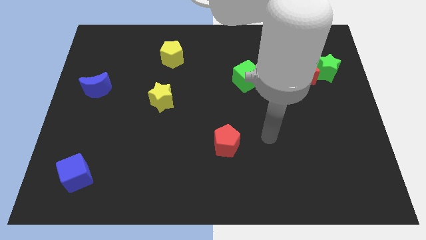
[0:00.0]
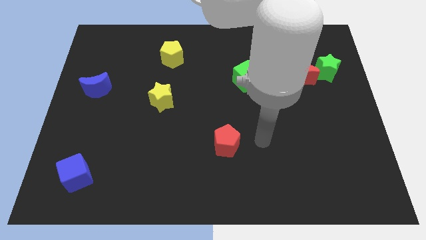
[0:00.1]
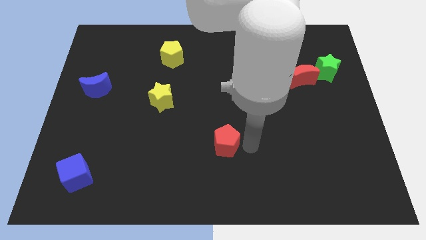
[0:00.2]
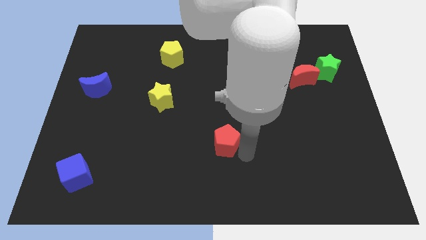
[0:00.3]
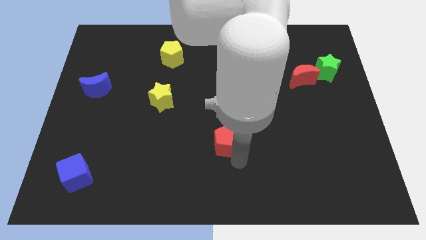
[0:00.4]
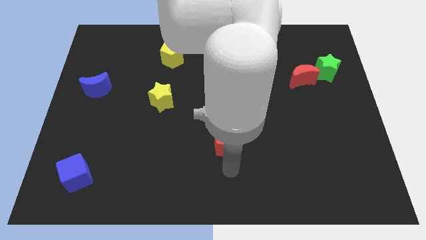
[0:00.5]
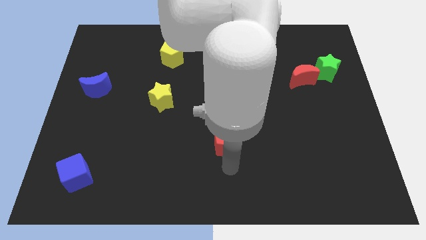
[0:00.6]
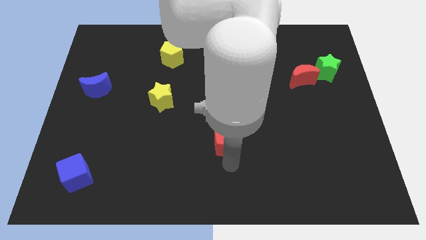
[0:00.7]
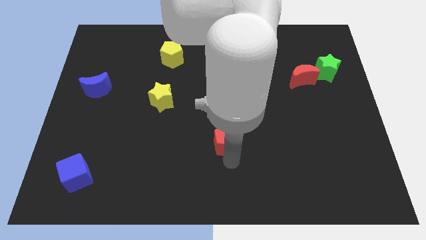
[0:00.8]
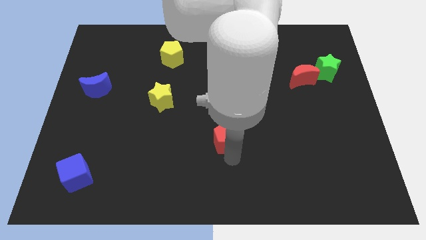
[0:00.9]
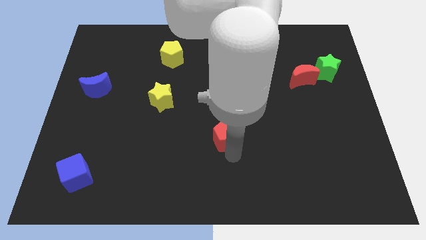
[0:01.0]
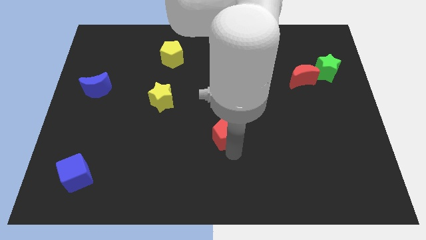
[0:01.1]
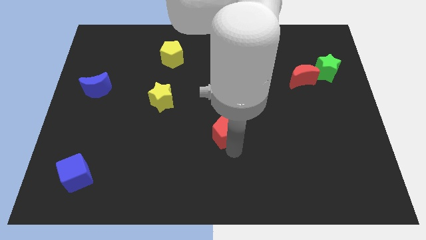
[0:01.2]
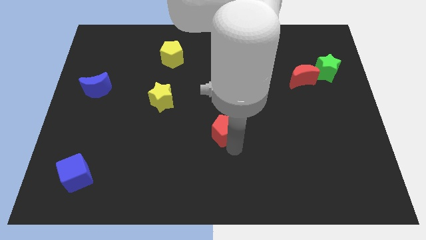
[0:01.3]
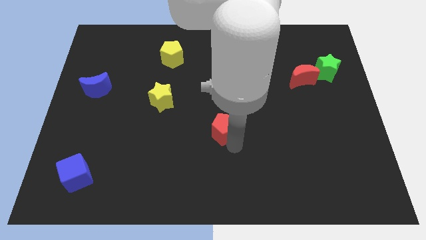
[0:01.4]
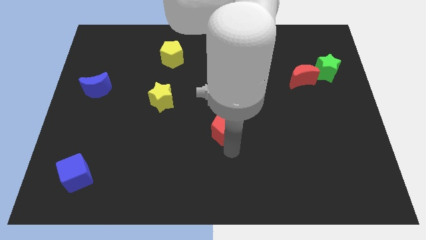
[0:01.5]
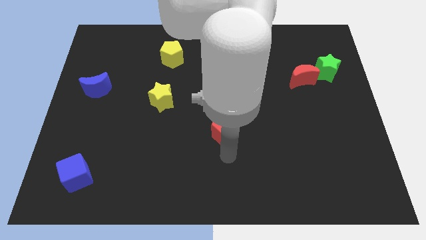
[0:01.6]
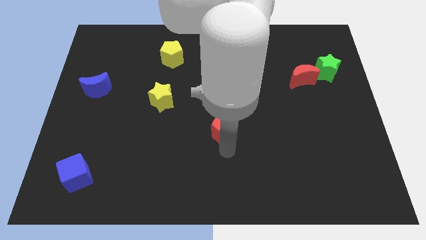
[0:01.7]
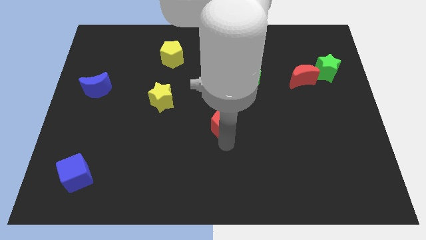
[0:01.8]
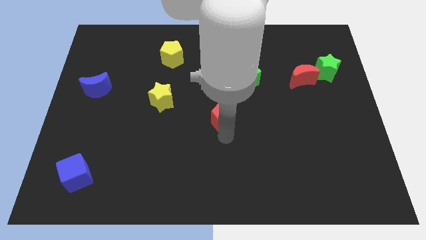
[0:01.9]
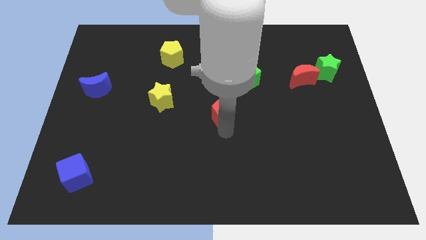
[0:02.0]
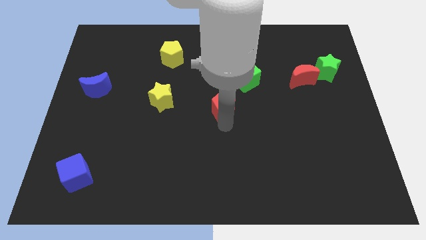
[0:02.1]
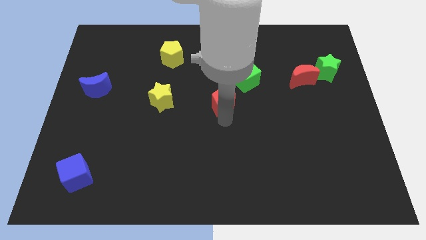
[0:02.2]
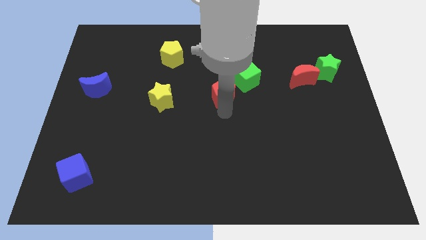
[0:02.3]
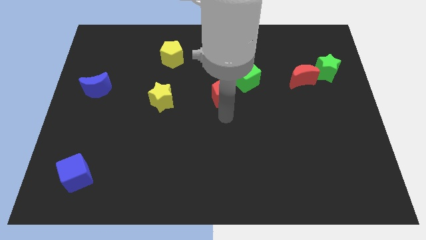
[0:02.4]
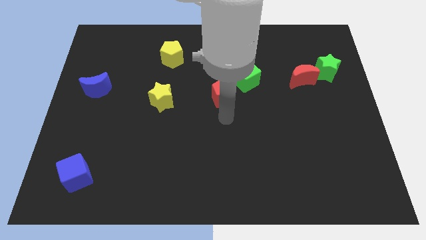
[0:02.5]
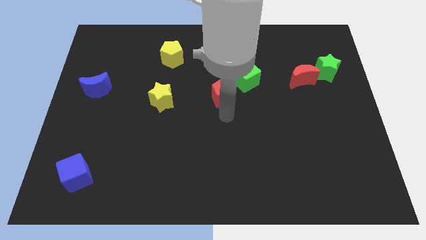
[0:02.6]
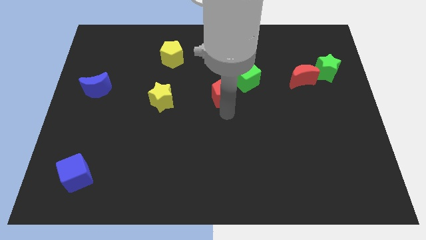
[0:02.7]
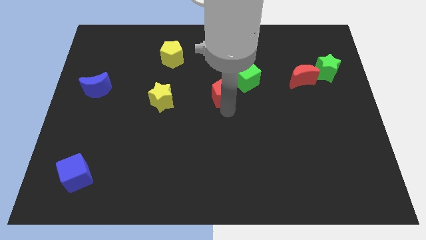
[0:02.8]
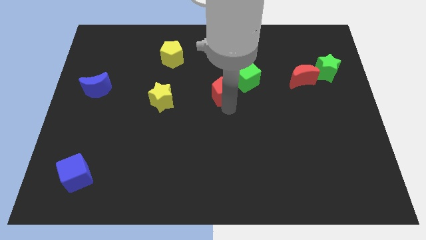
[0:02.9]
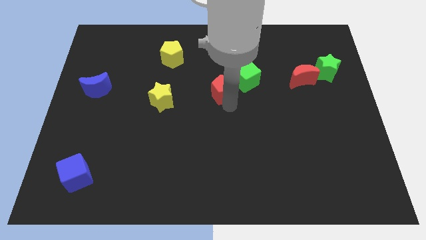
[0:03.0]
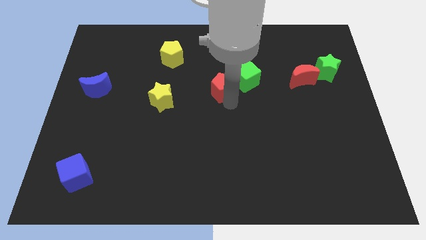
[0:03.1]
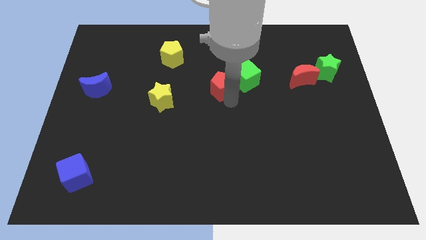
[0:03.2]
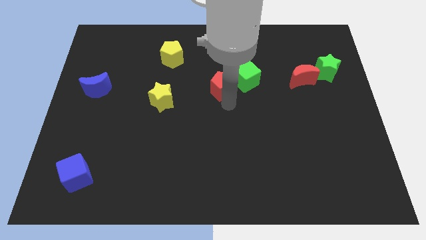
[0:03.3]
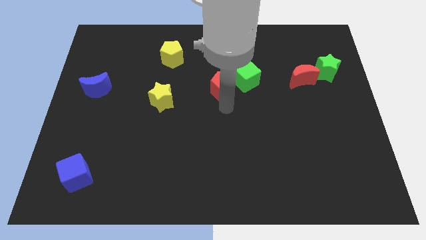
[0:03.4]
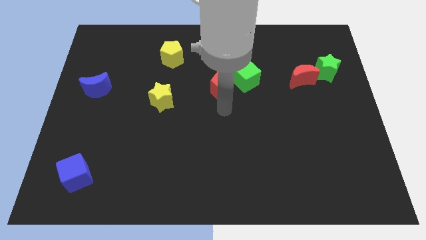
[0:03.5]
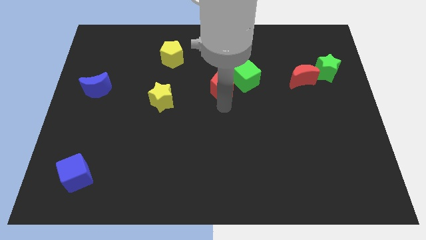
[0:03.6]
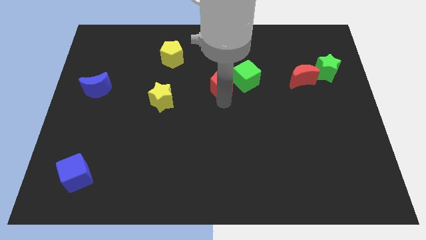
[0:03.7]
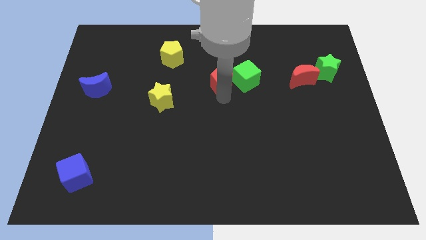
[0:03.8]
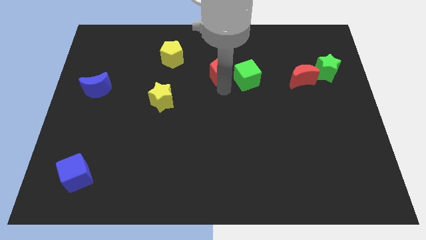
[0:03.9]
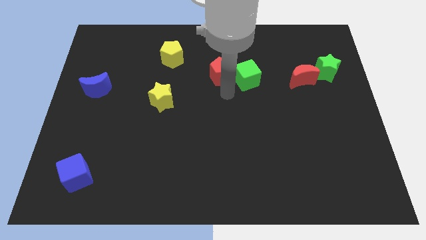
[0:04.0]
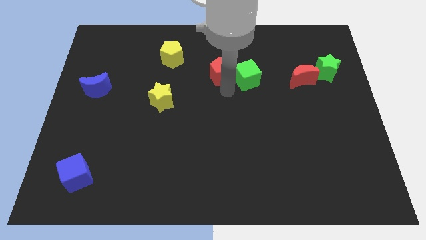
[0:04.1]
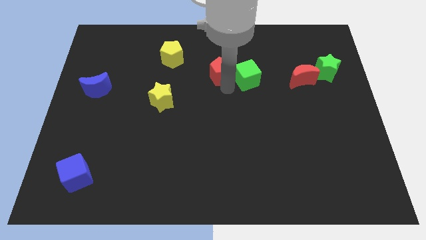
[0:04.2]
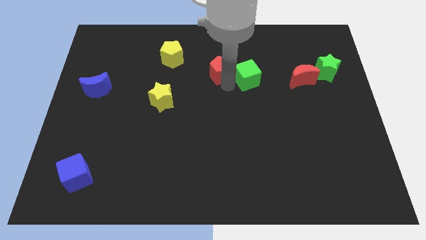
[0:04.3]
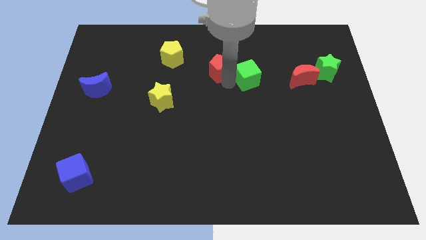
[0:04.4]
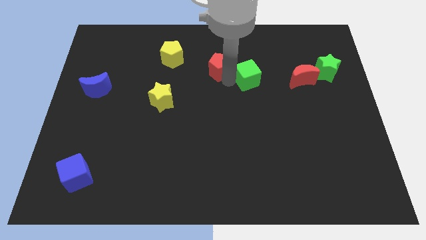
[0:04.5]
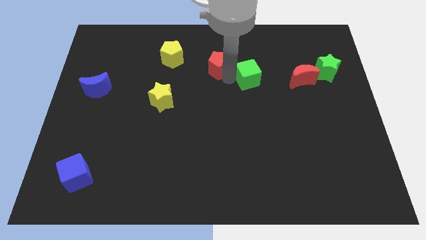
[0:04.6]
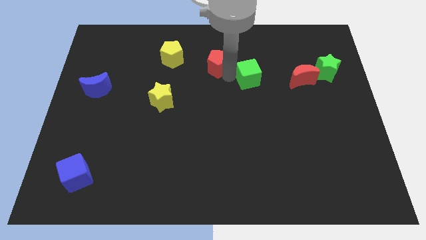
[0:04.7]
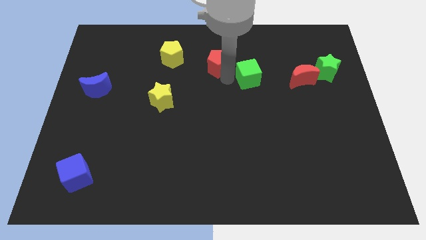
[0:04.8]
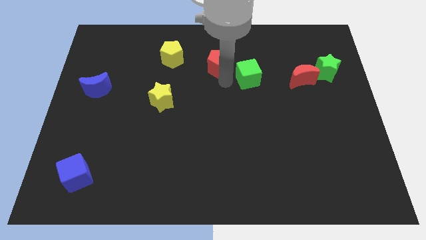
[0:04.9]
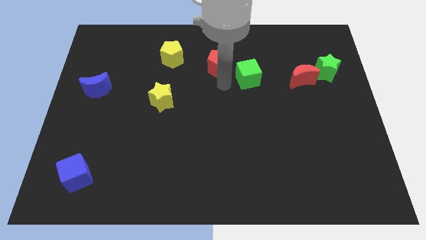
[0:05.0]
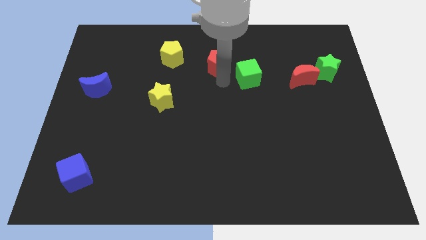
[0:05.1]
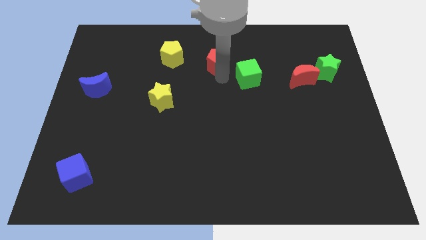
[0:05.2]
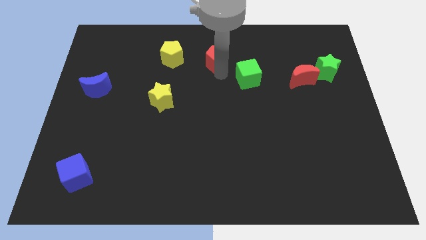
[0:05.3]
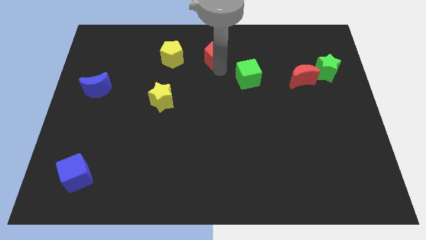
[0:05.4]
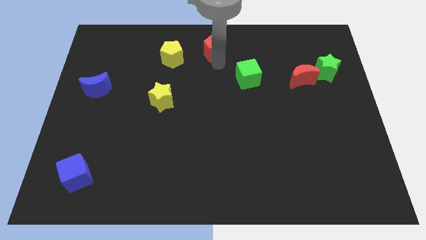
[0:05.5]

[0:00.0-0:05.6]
slide the red pentagon to the top side

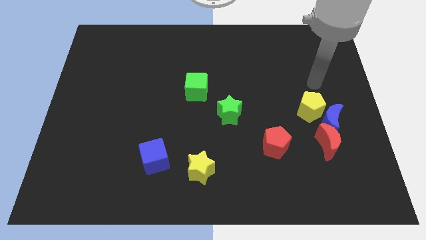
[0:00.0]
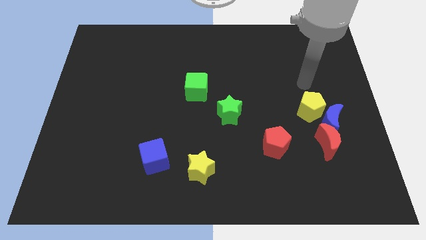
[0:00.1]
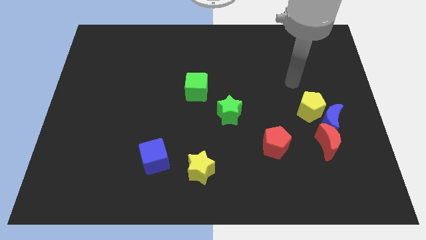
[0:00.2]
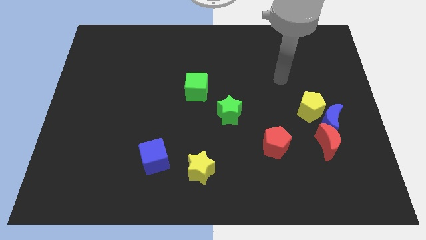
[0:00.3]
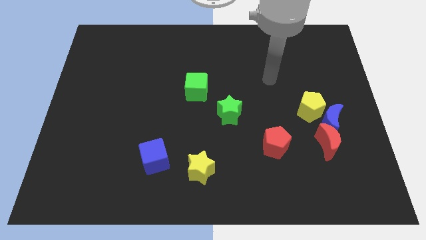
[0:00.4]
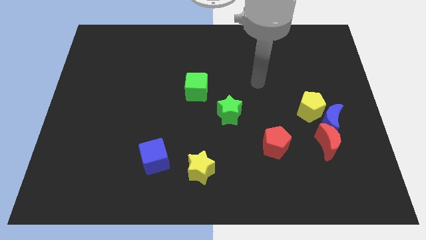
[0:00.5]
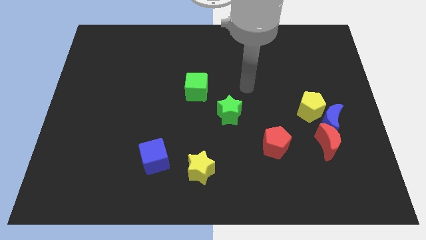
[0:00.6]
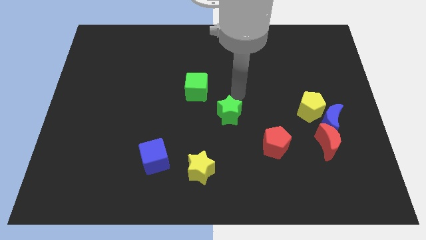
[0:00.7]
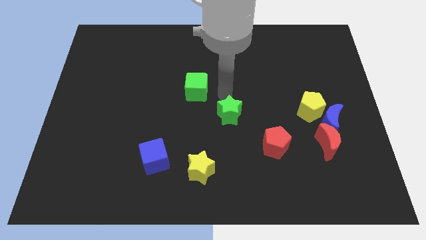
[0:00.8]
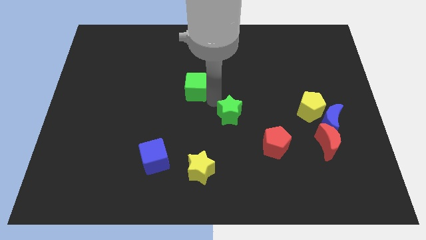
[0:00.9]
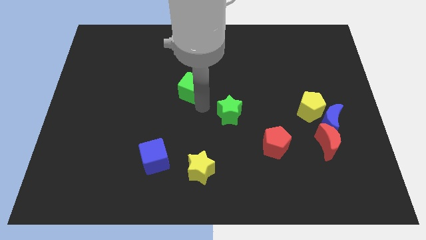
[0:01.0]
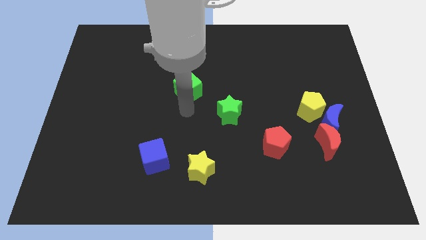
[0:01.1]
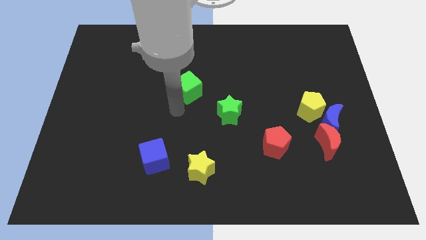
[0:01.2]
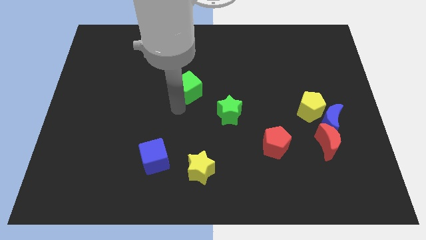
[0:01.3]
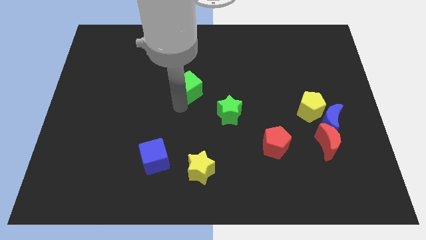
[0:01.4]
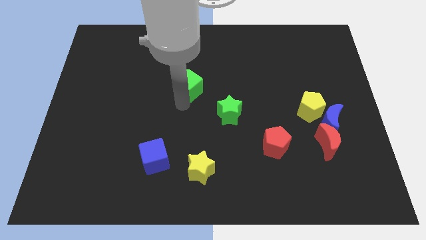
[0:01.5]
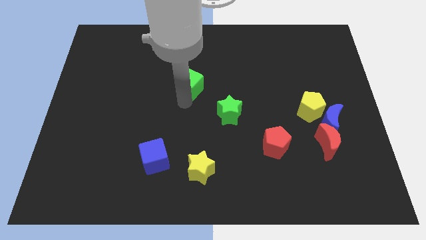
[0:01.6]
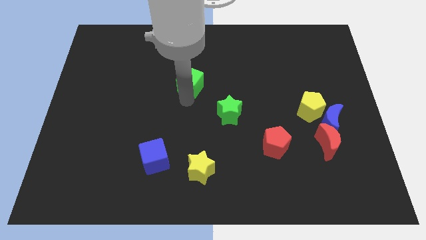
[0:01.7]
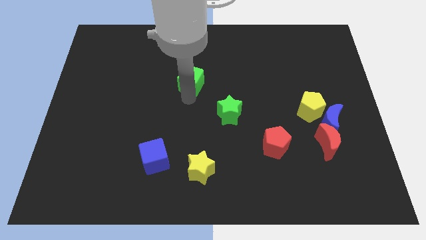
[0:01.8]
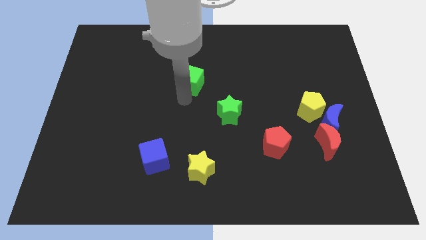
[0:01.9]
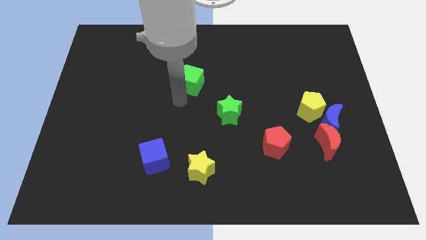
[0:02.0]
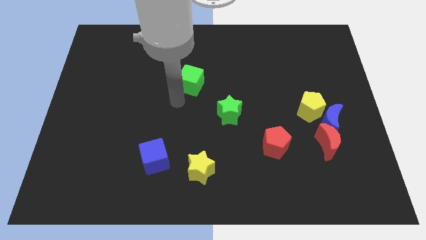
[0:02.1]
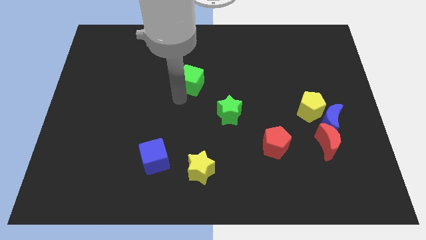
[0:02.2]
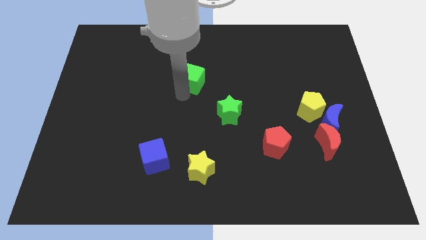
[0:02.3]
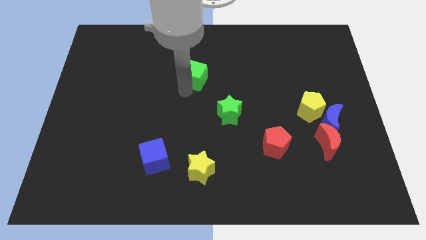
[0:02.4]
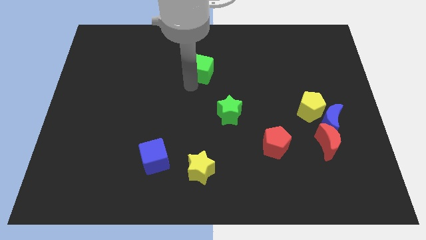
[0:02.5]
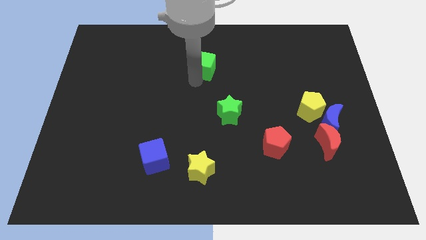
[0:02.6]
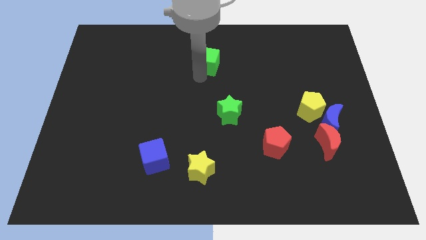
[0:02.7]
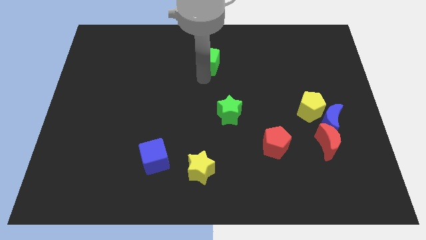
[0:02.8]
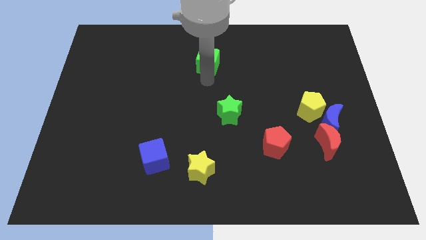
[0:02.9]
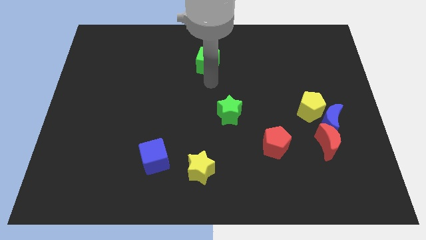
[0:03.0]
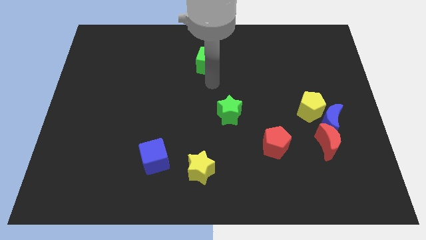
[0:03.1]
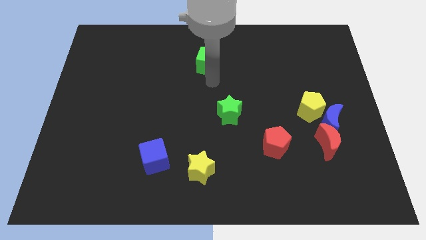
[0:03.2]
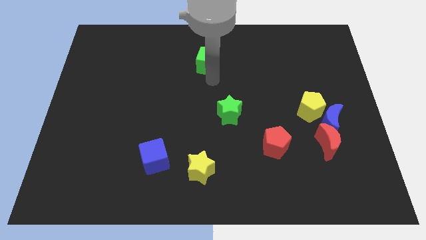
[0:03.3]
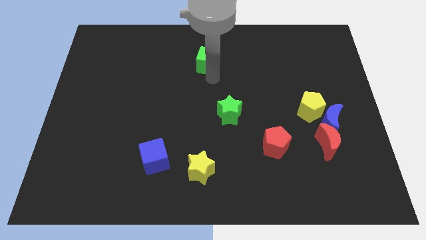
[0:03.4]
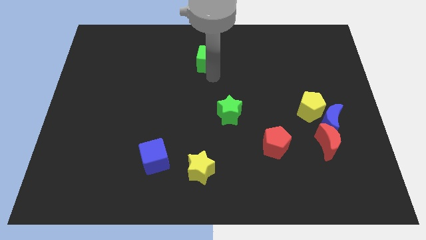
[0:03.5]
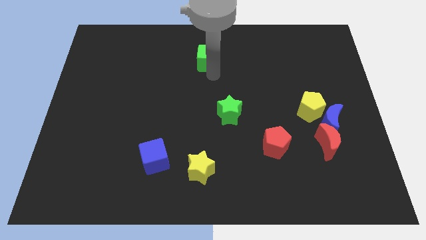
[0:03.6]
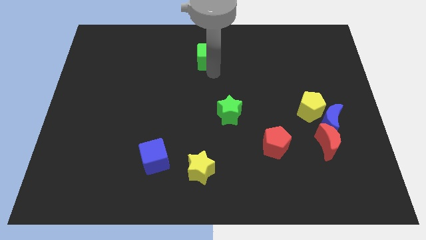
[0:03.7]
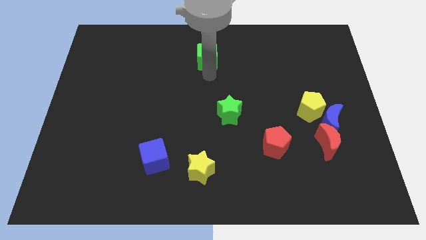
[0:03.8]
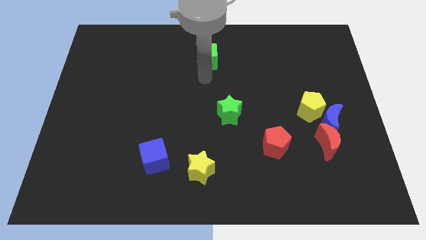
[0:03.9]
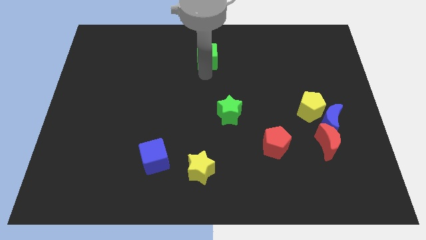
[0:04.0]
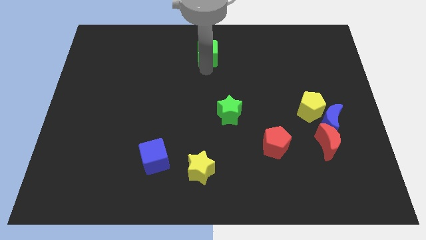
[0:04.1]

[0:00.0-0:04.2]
put the green cube to the top
